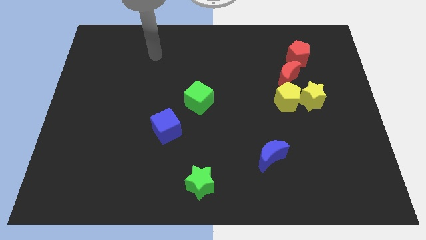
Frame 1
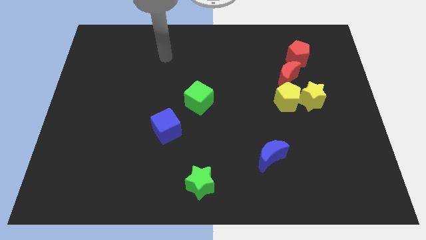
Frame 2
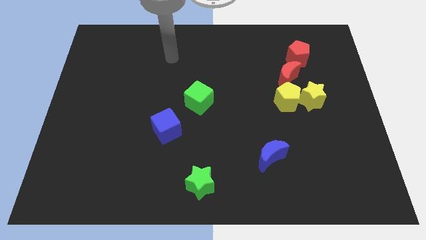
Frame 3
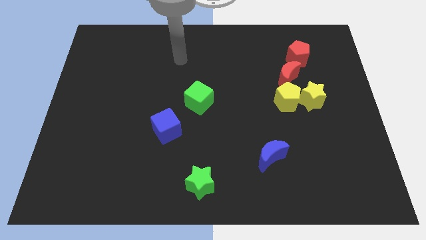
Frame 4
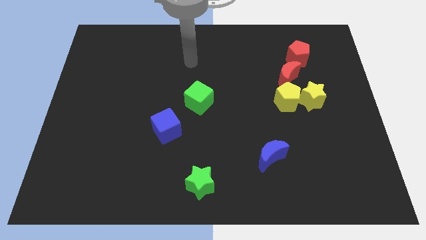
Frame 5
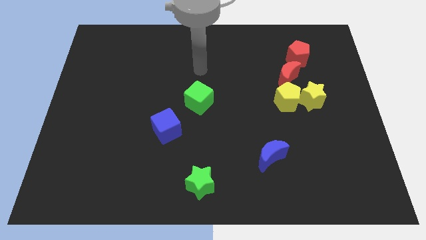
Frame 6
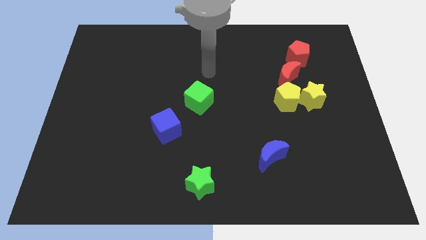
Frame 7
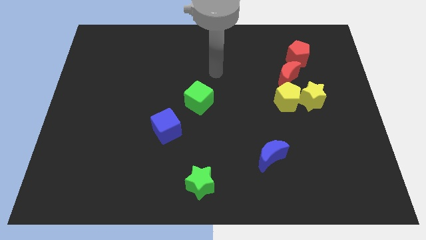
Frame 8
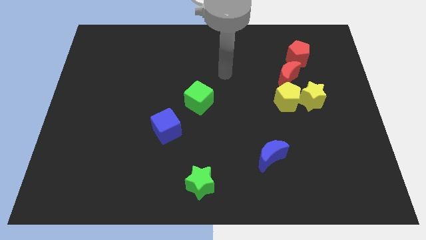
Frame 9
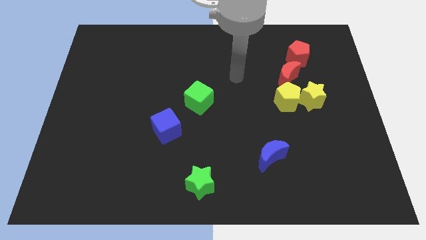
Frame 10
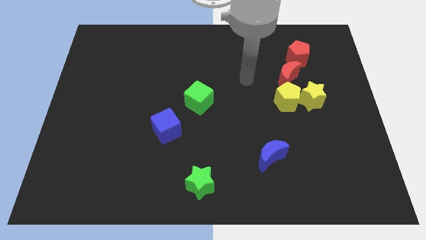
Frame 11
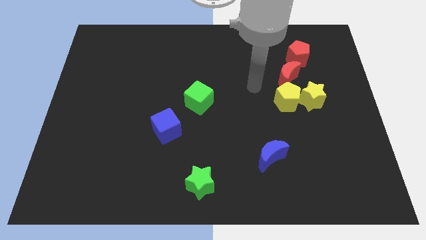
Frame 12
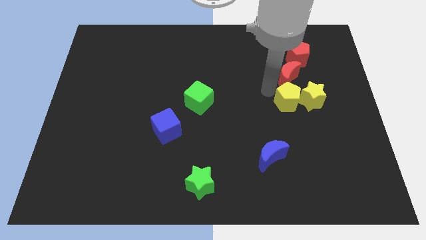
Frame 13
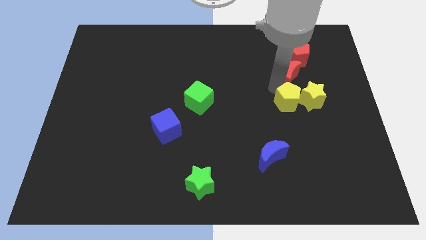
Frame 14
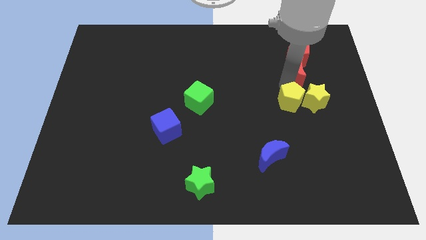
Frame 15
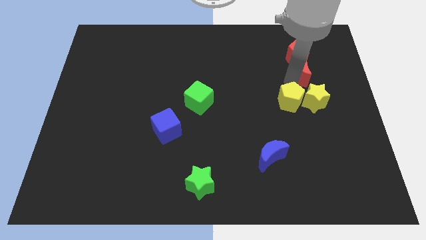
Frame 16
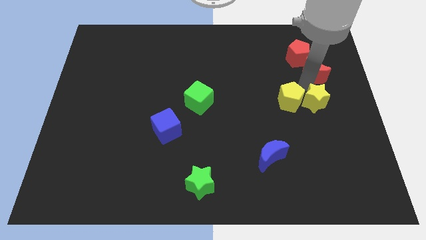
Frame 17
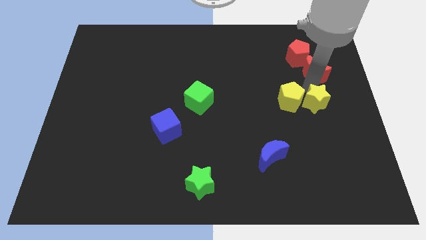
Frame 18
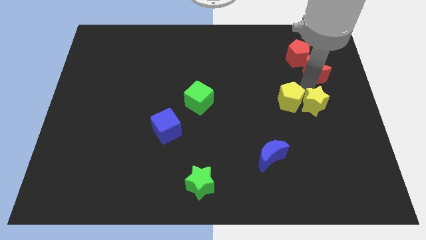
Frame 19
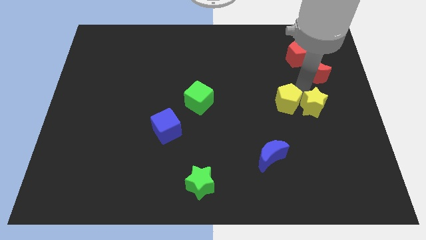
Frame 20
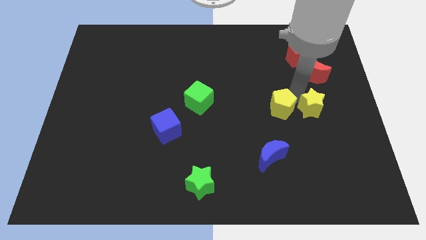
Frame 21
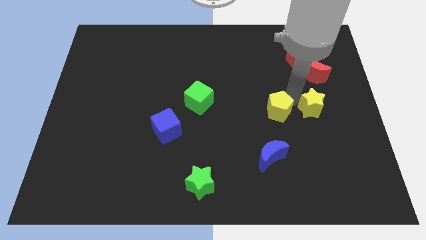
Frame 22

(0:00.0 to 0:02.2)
pull the yellow pentagon apart from the yellow star and red moon

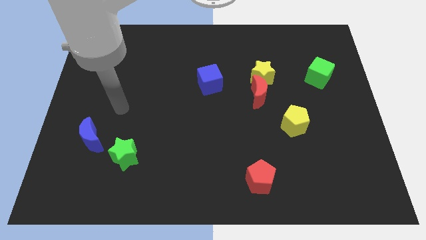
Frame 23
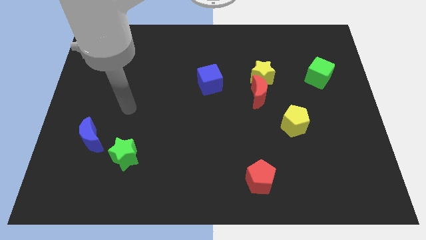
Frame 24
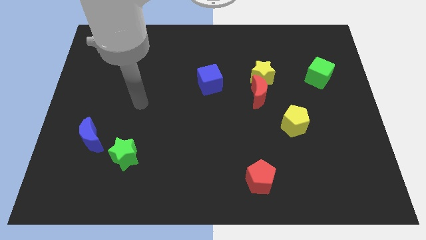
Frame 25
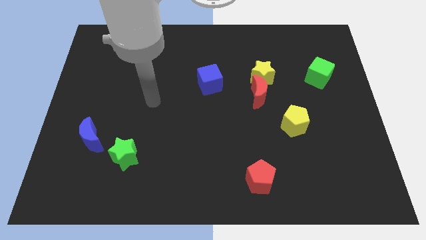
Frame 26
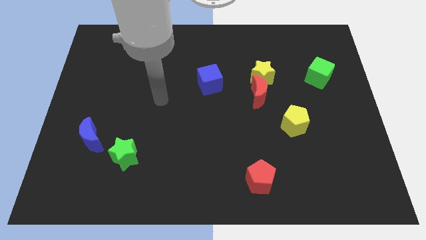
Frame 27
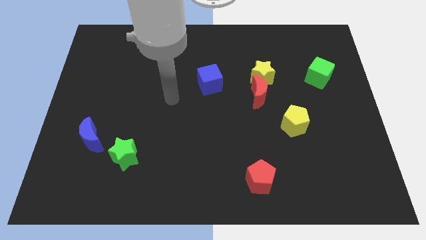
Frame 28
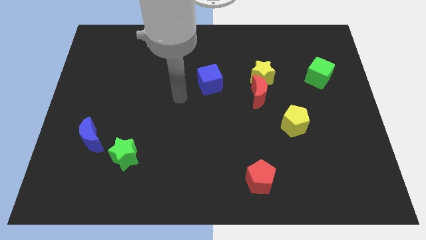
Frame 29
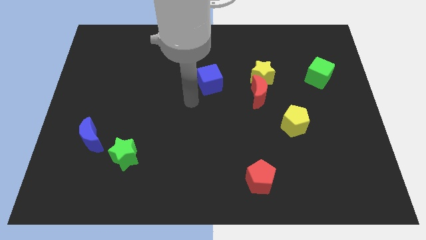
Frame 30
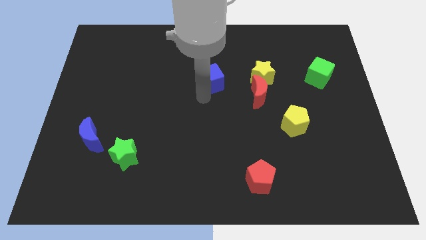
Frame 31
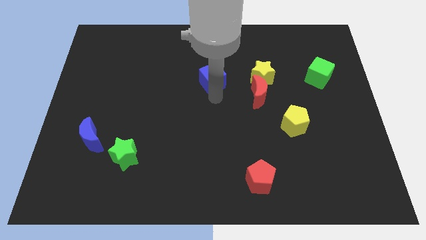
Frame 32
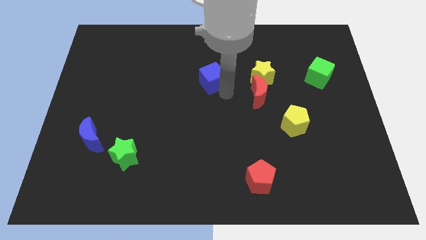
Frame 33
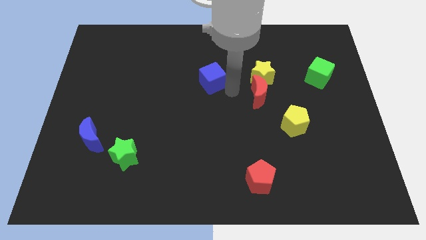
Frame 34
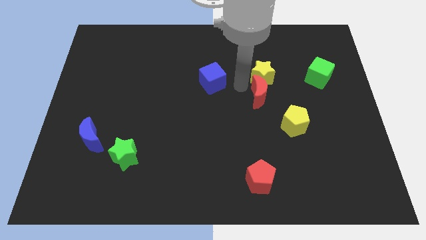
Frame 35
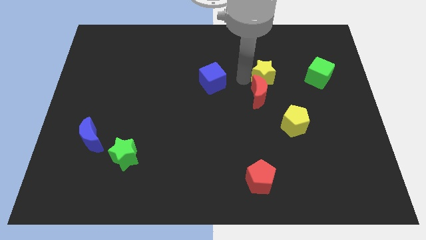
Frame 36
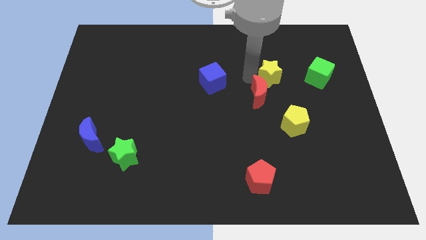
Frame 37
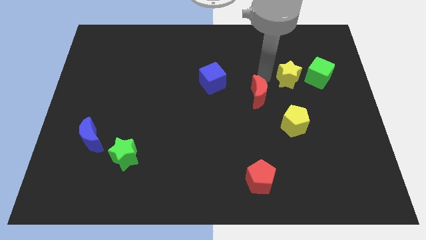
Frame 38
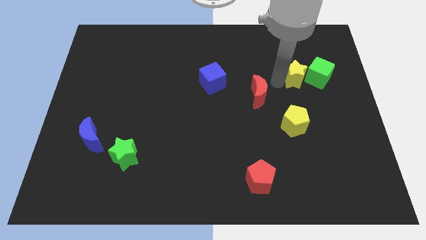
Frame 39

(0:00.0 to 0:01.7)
pull the red moon apart from the yellow star

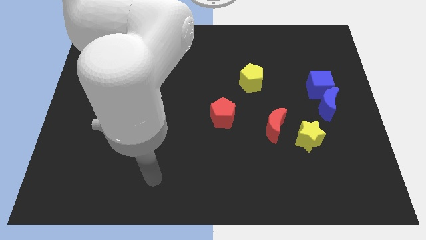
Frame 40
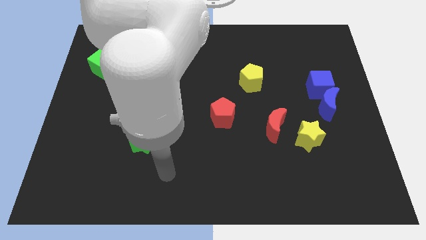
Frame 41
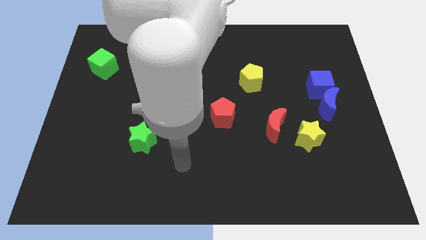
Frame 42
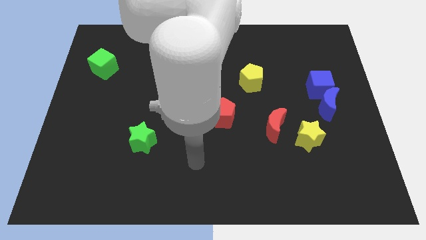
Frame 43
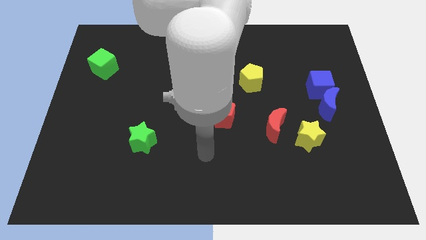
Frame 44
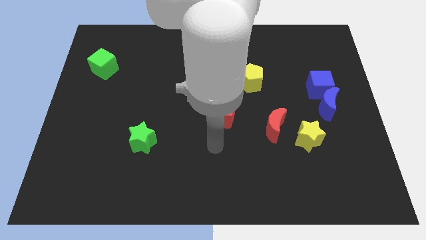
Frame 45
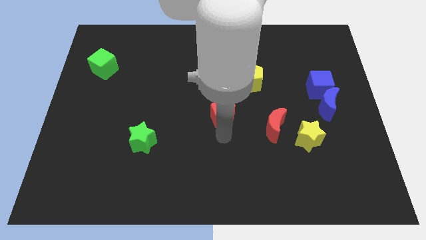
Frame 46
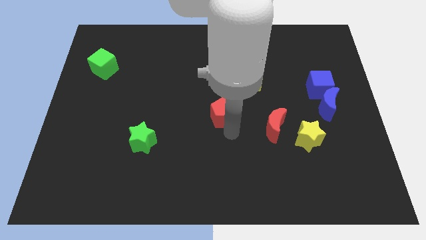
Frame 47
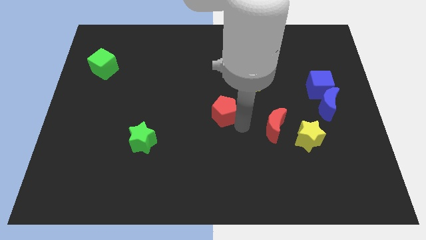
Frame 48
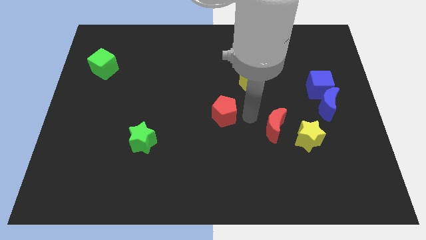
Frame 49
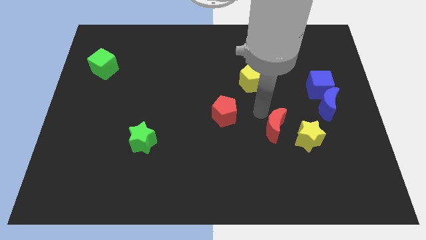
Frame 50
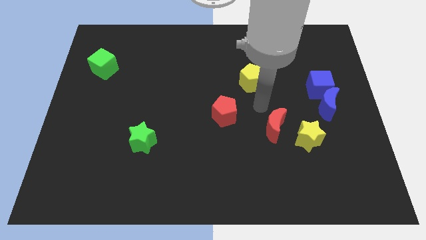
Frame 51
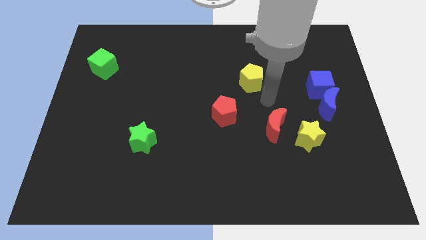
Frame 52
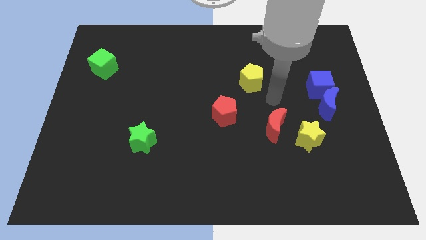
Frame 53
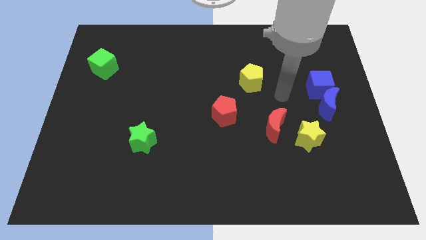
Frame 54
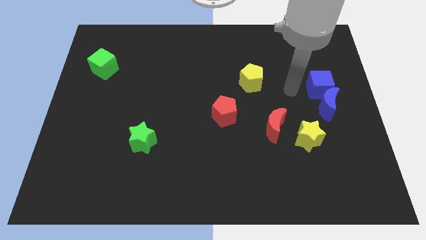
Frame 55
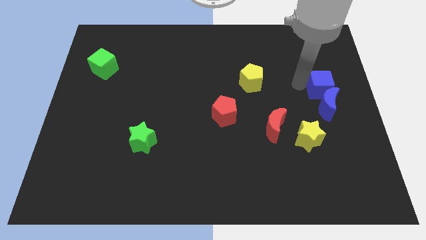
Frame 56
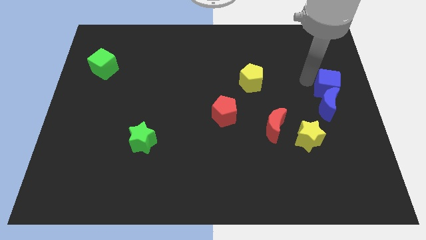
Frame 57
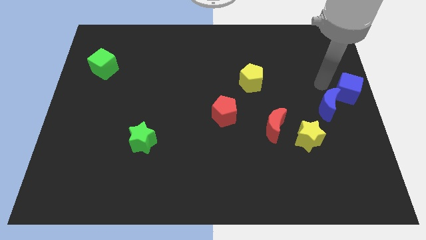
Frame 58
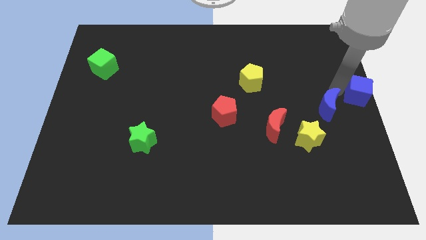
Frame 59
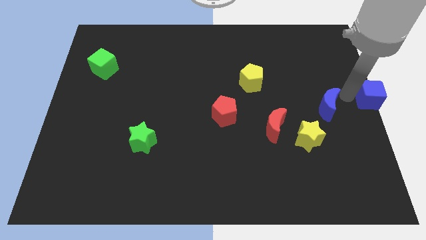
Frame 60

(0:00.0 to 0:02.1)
separate the blue moon from the blue cube

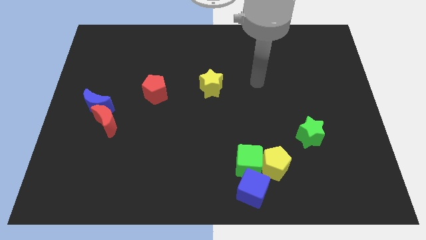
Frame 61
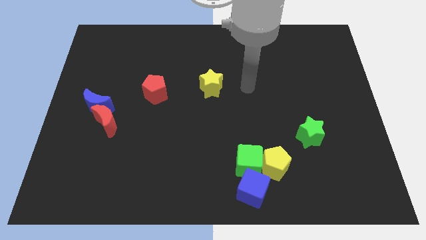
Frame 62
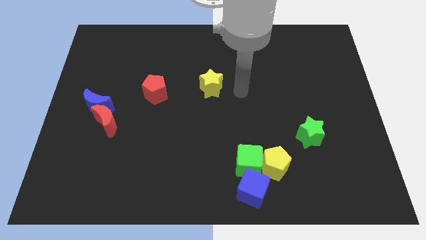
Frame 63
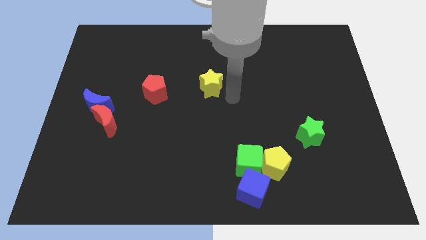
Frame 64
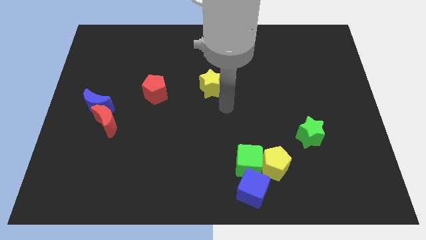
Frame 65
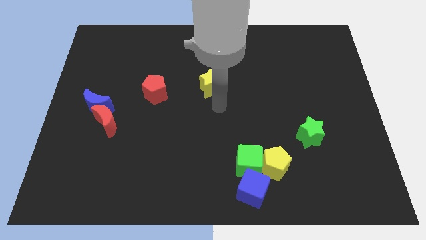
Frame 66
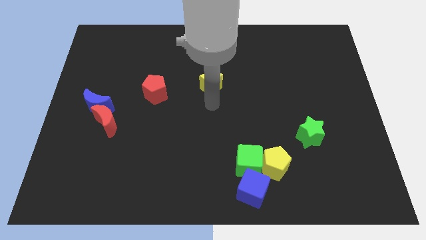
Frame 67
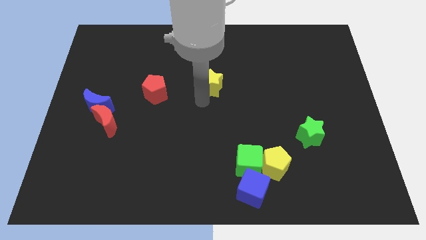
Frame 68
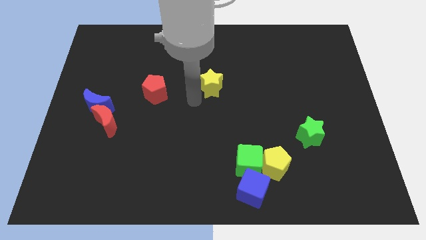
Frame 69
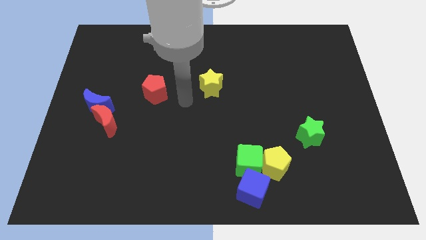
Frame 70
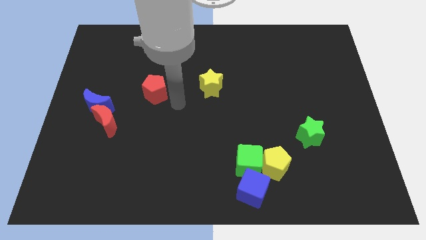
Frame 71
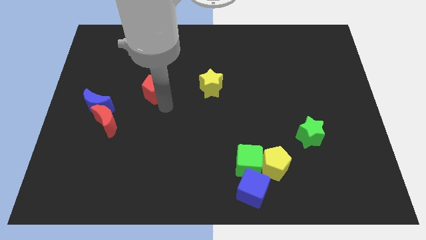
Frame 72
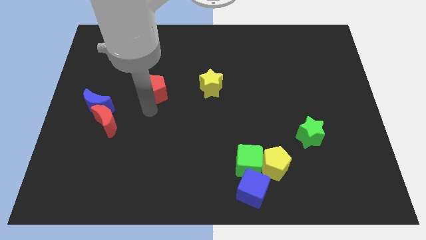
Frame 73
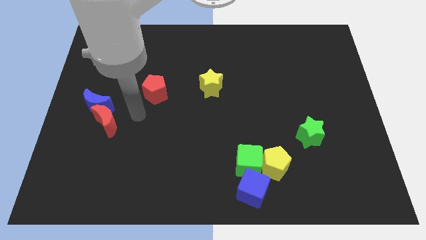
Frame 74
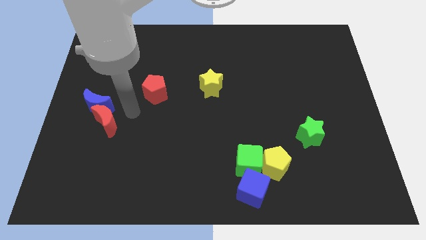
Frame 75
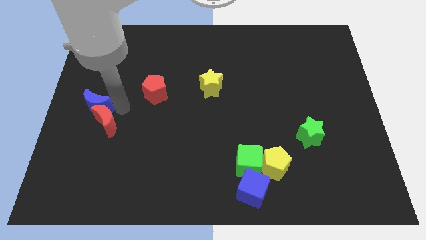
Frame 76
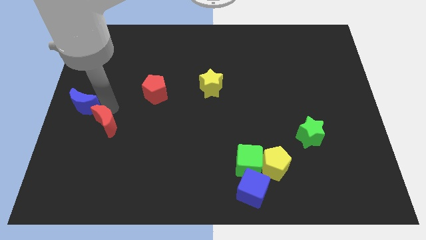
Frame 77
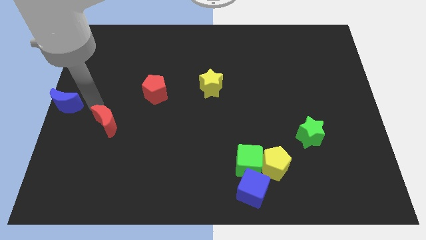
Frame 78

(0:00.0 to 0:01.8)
separate the red moon from the blue moon

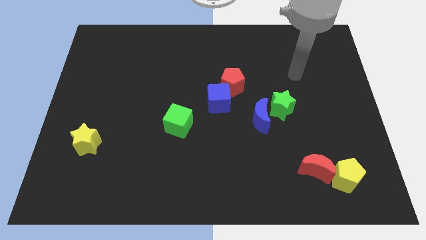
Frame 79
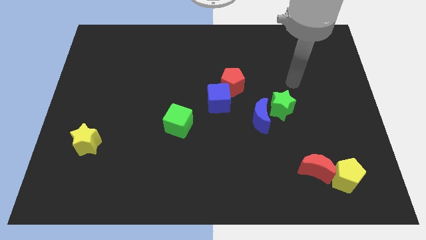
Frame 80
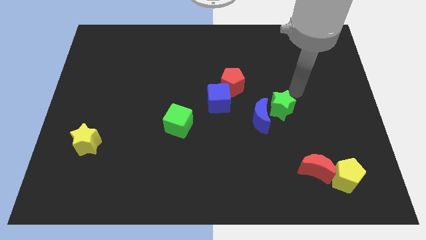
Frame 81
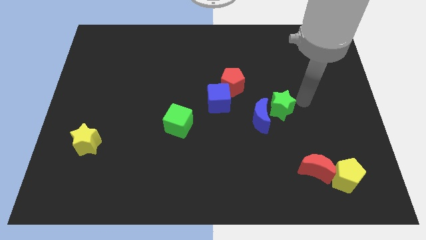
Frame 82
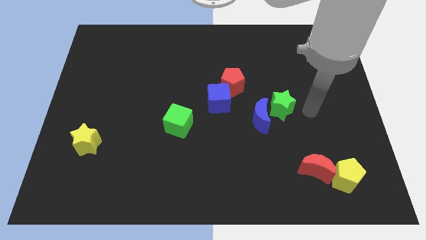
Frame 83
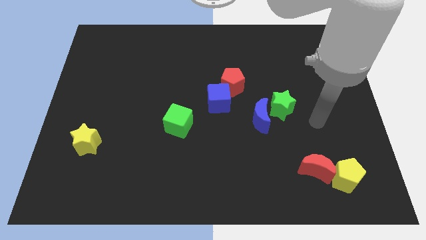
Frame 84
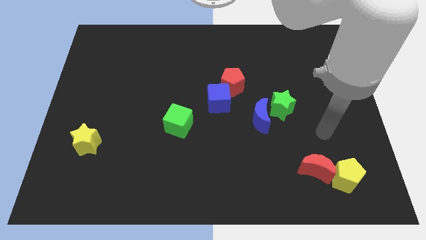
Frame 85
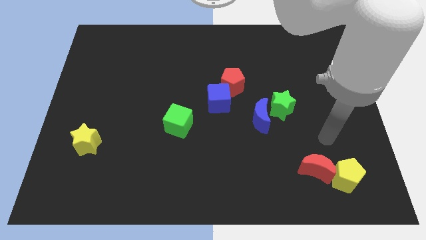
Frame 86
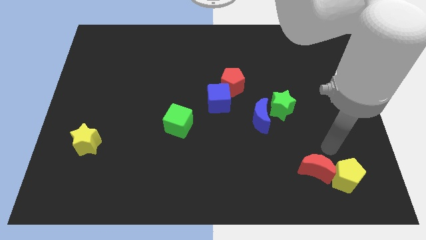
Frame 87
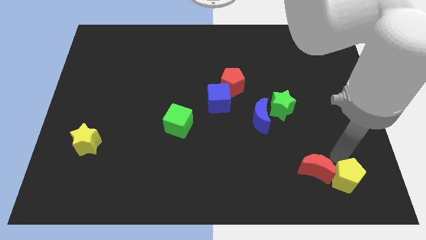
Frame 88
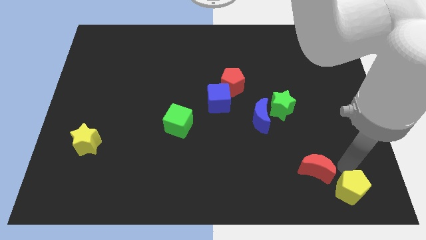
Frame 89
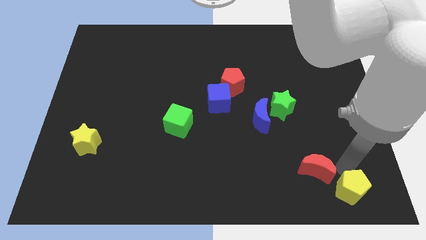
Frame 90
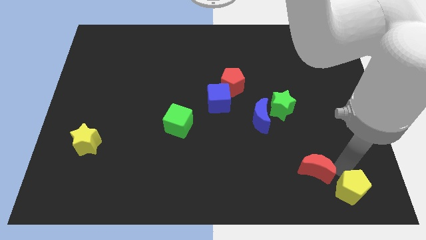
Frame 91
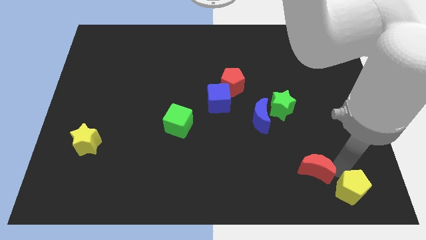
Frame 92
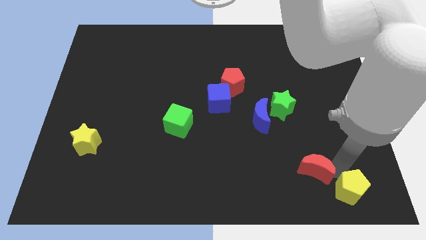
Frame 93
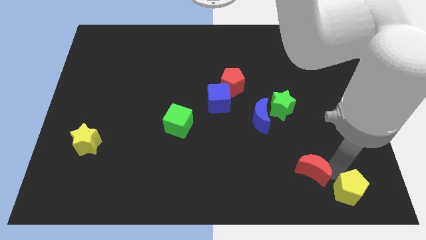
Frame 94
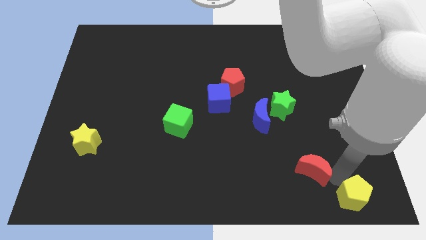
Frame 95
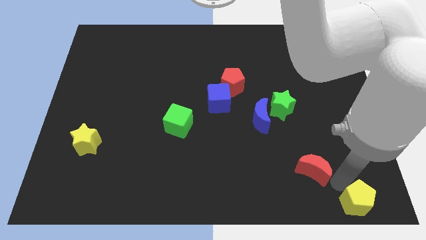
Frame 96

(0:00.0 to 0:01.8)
separate the red moon from the yellow pentagon
